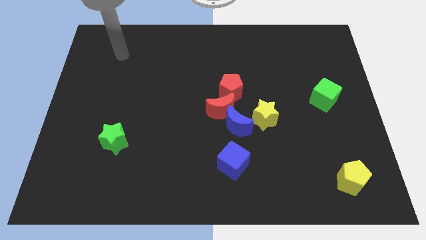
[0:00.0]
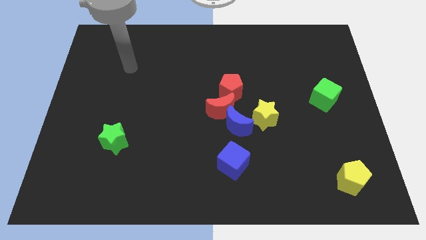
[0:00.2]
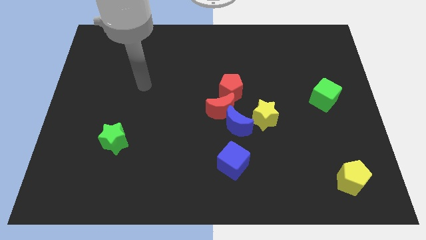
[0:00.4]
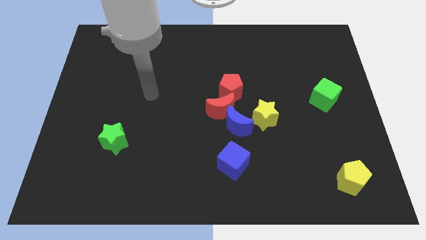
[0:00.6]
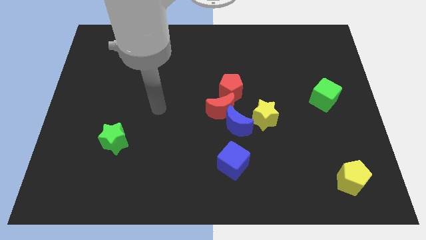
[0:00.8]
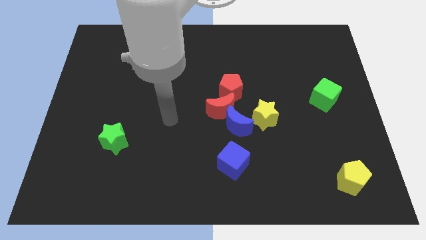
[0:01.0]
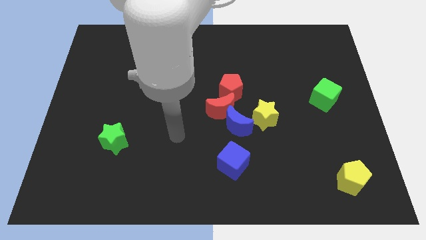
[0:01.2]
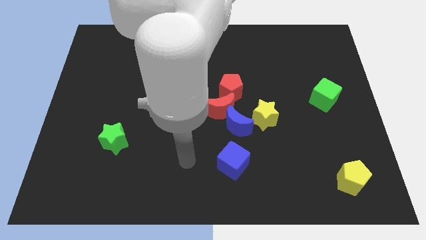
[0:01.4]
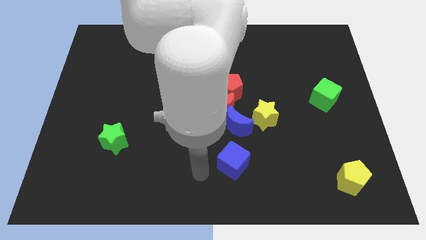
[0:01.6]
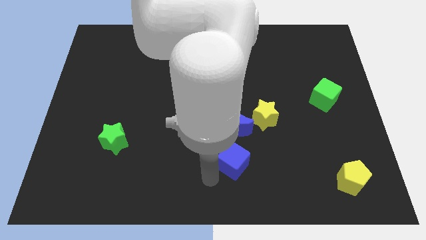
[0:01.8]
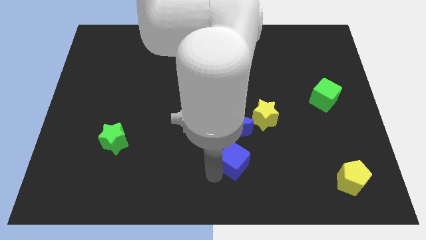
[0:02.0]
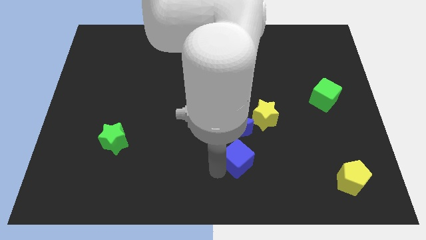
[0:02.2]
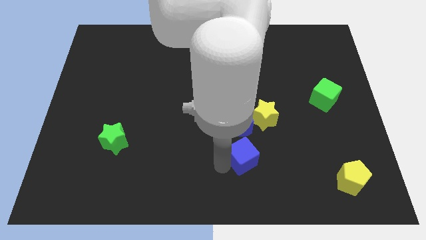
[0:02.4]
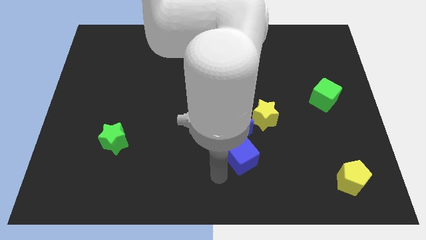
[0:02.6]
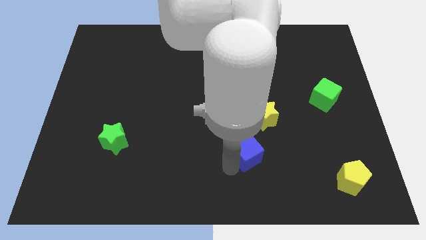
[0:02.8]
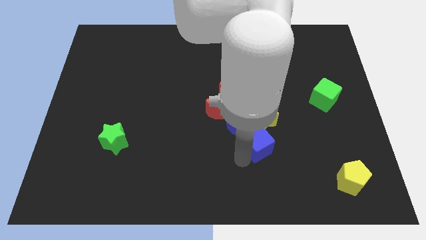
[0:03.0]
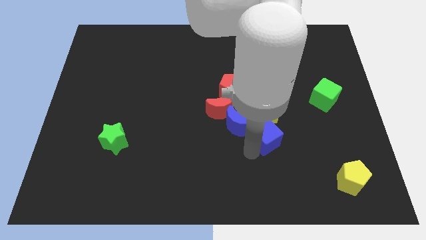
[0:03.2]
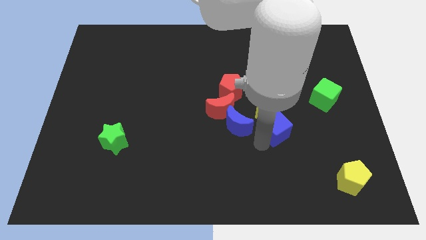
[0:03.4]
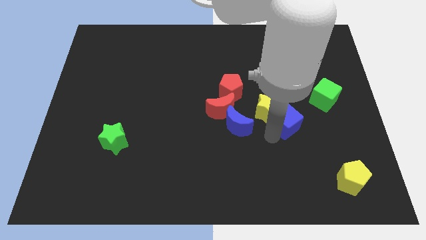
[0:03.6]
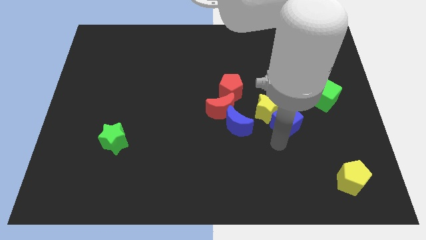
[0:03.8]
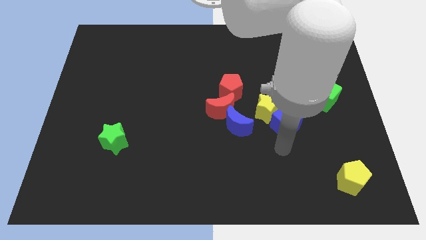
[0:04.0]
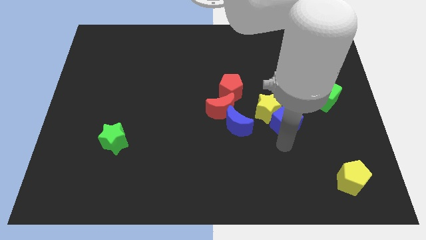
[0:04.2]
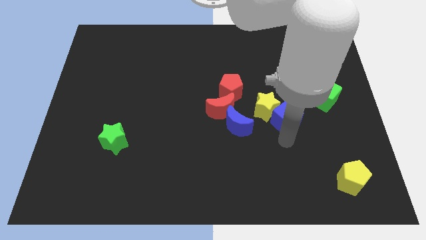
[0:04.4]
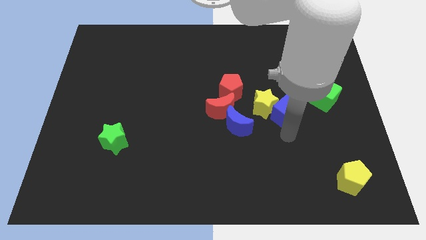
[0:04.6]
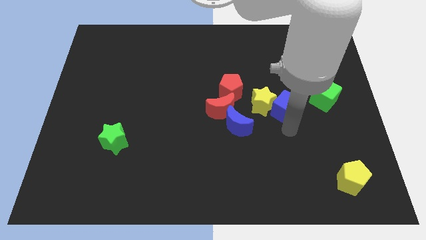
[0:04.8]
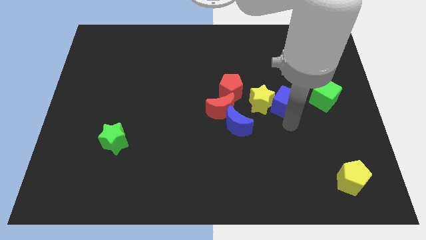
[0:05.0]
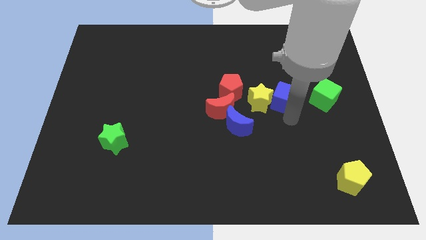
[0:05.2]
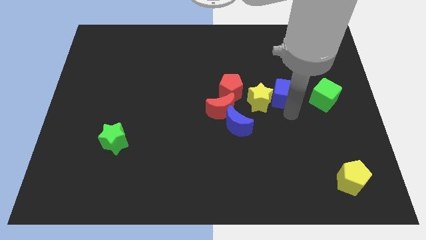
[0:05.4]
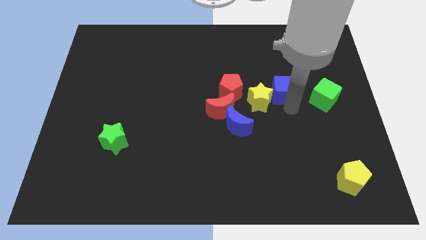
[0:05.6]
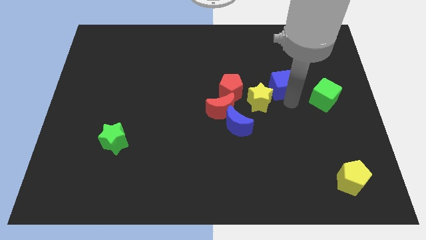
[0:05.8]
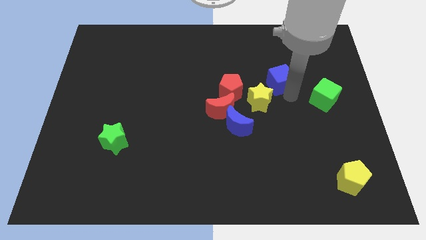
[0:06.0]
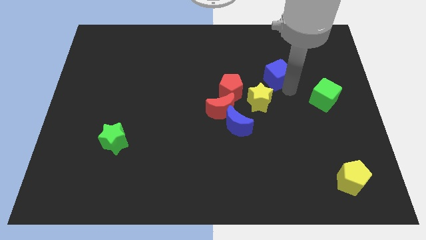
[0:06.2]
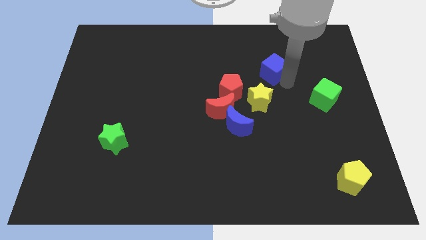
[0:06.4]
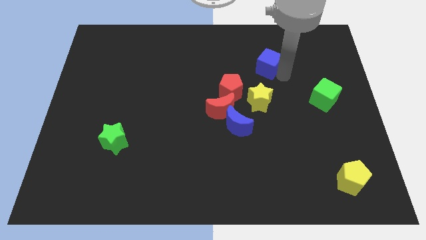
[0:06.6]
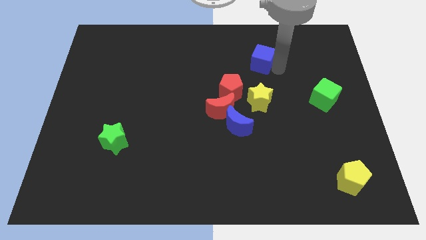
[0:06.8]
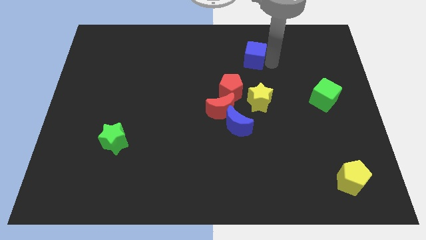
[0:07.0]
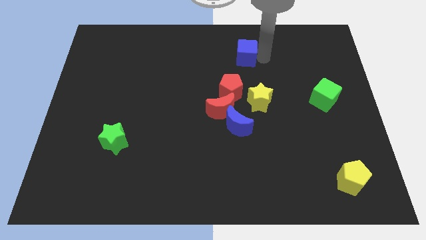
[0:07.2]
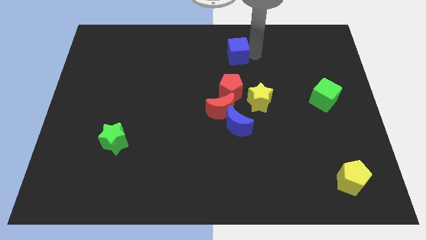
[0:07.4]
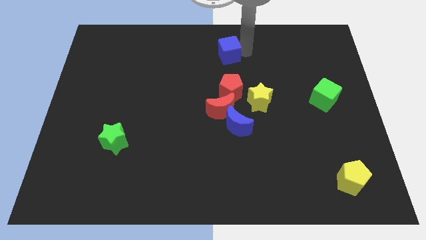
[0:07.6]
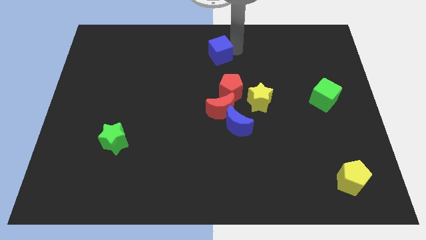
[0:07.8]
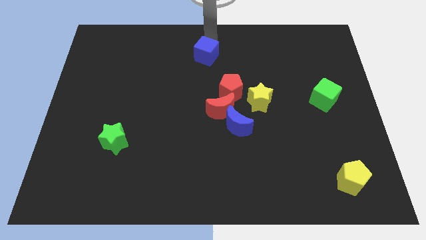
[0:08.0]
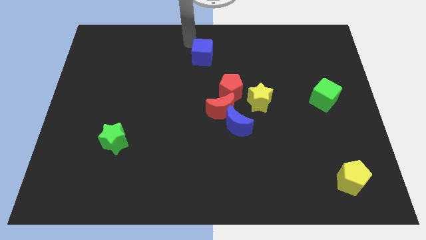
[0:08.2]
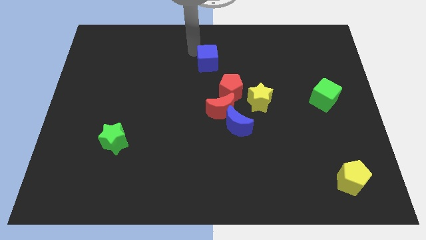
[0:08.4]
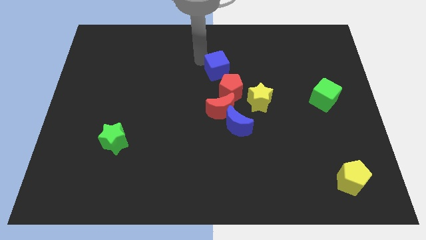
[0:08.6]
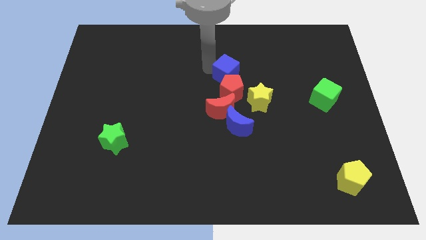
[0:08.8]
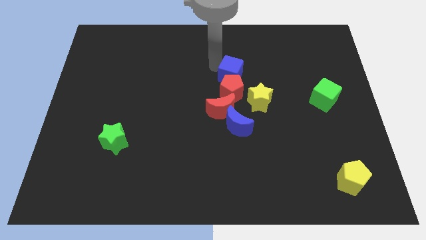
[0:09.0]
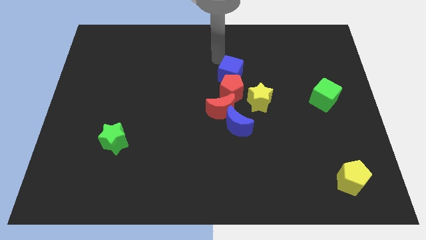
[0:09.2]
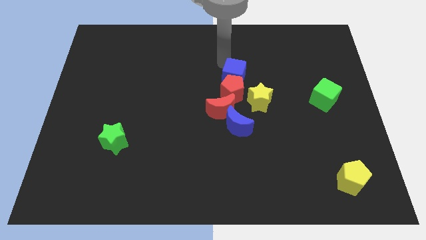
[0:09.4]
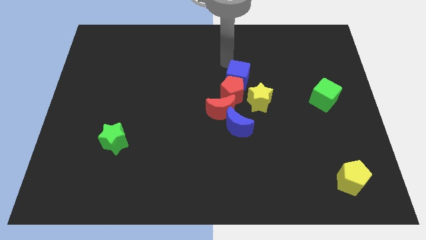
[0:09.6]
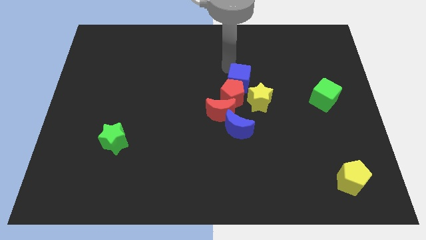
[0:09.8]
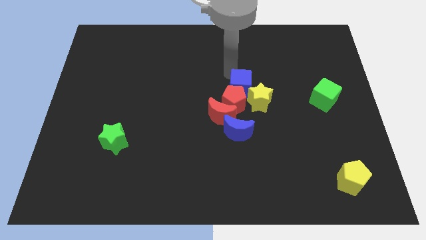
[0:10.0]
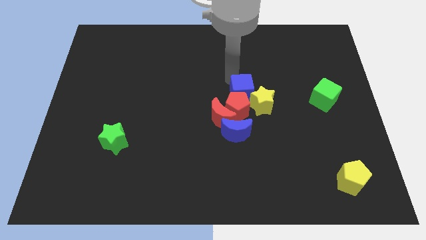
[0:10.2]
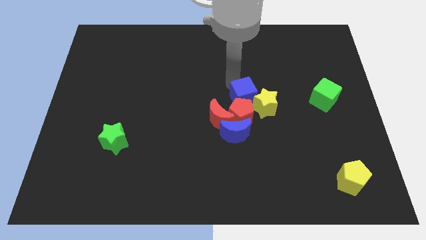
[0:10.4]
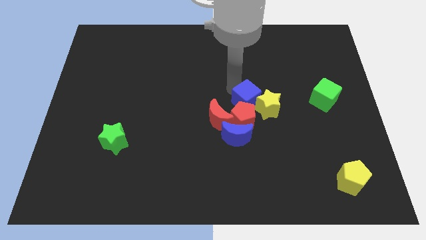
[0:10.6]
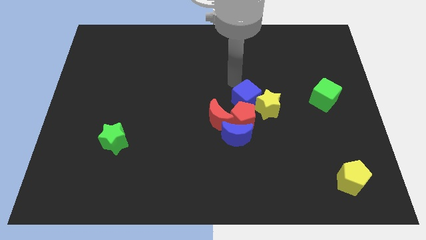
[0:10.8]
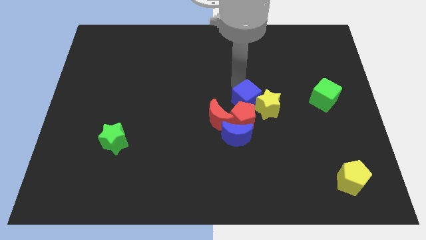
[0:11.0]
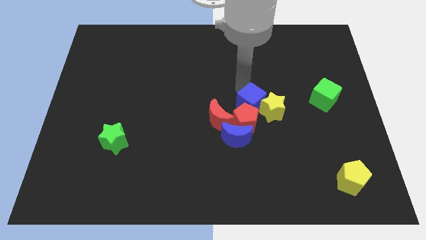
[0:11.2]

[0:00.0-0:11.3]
move the blue cube diagonally up and to the right of the blue moon
